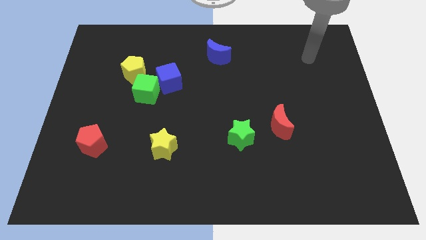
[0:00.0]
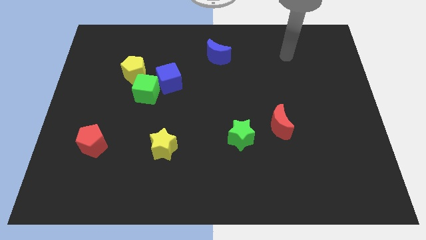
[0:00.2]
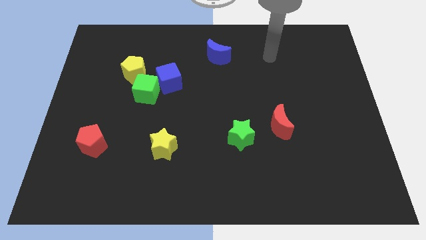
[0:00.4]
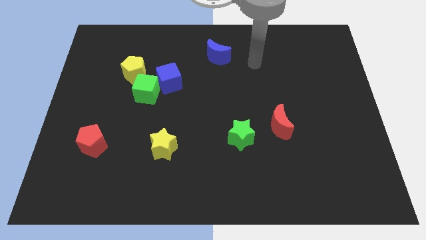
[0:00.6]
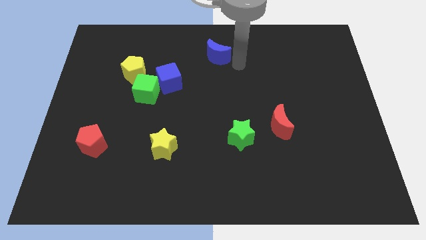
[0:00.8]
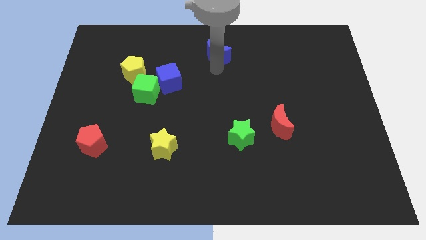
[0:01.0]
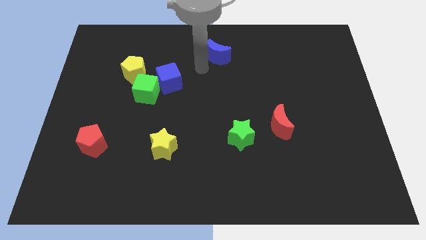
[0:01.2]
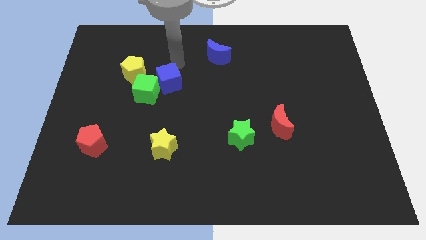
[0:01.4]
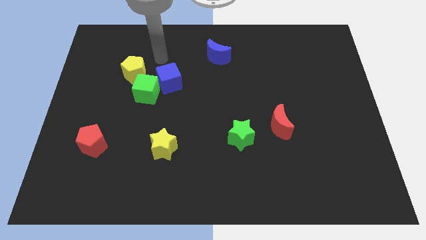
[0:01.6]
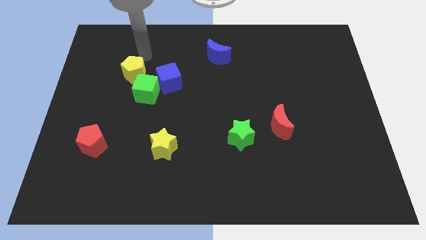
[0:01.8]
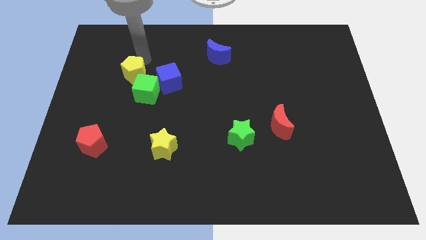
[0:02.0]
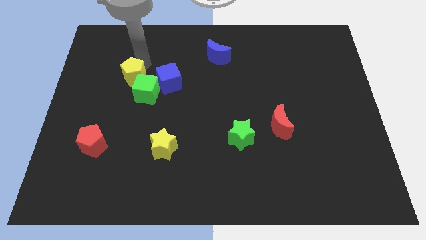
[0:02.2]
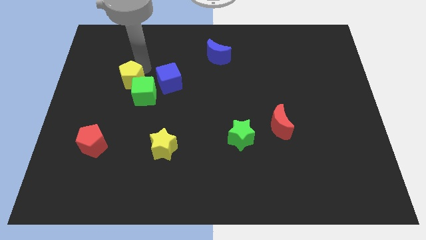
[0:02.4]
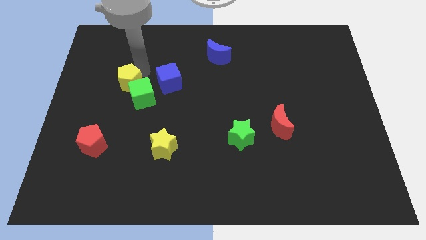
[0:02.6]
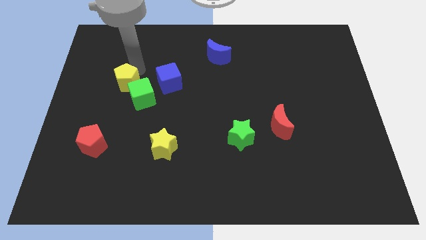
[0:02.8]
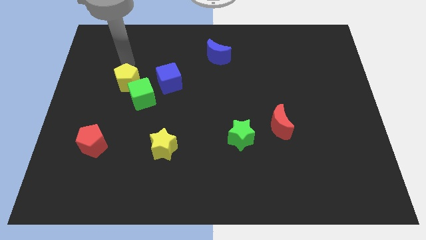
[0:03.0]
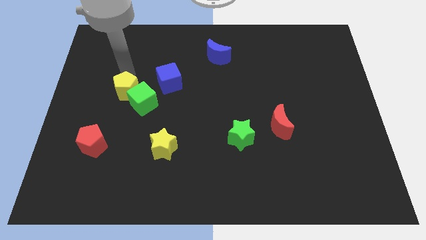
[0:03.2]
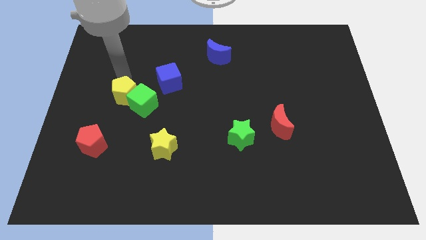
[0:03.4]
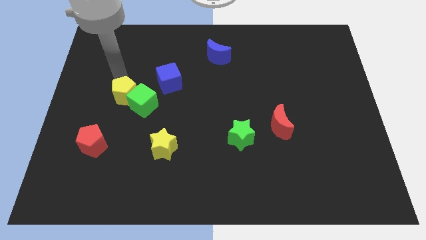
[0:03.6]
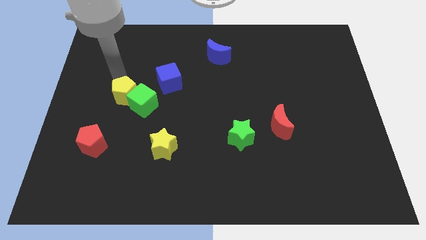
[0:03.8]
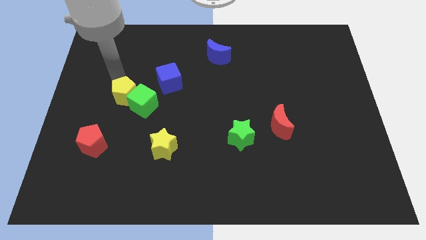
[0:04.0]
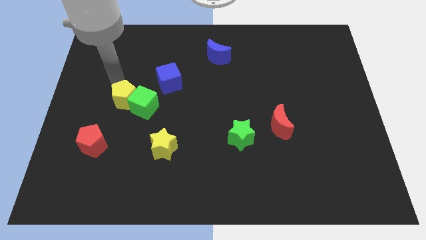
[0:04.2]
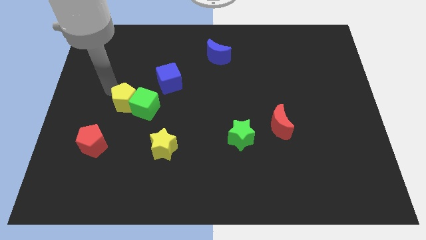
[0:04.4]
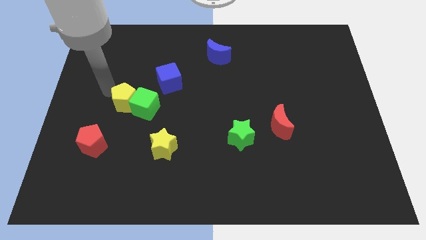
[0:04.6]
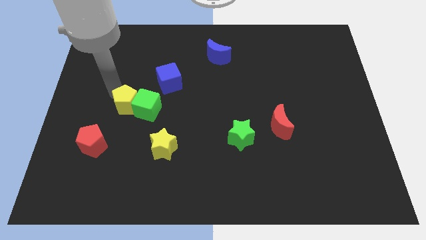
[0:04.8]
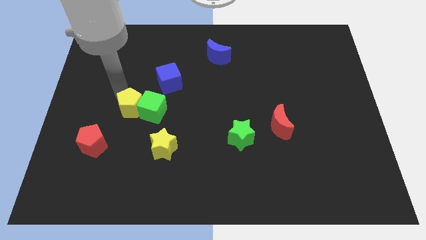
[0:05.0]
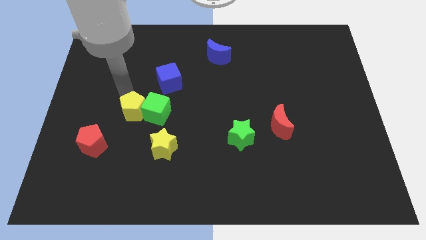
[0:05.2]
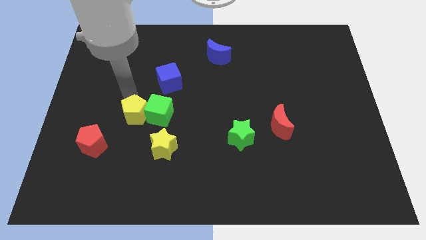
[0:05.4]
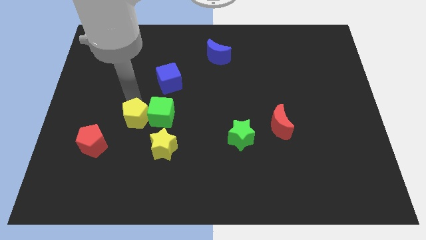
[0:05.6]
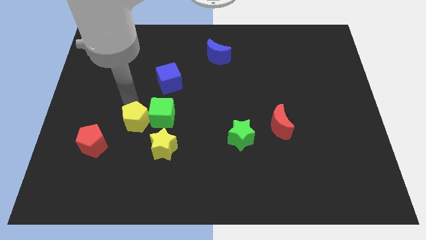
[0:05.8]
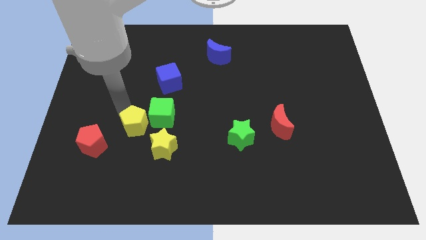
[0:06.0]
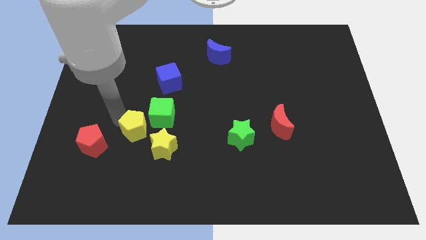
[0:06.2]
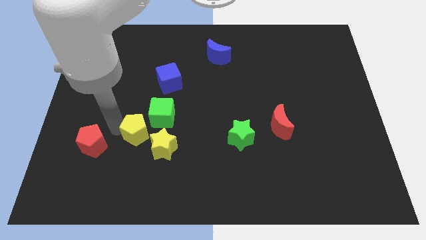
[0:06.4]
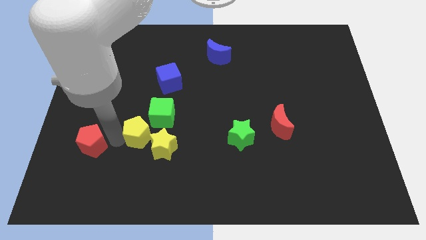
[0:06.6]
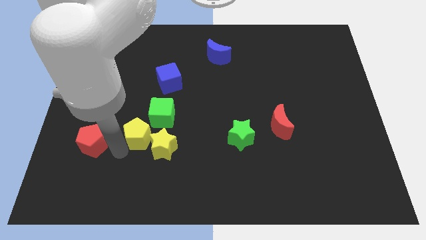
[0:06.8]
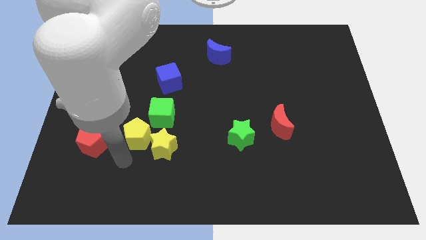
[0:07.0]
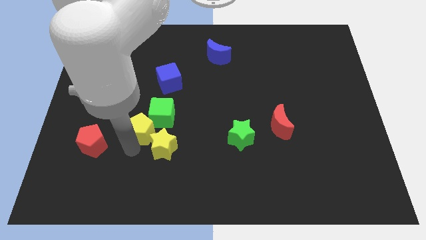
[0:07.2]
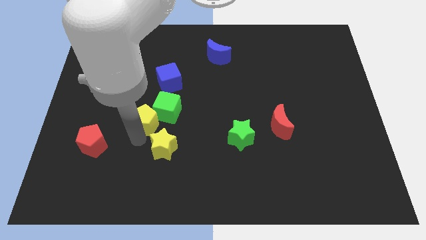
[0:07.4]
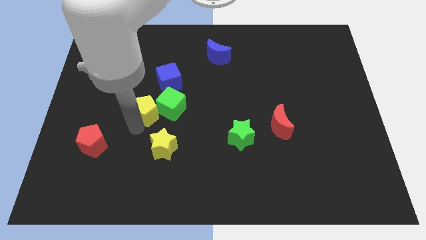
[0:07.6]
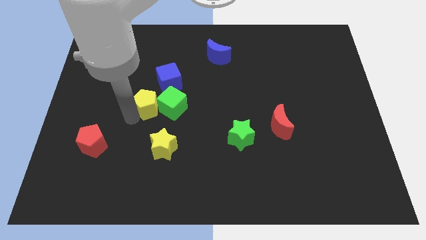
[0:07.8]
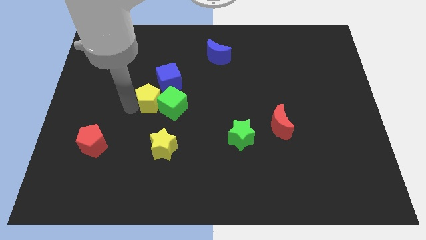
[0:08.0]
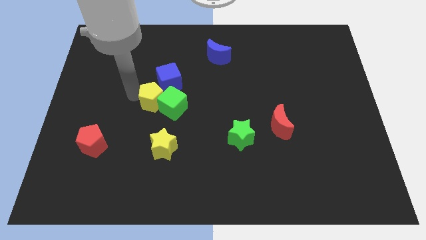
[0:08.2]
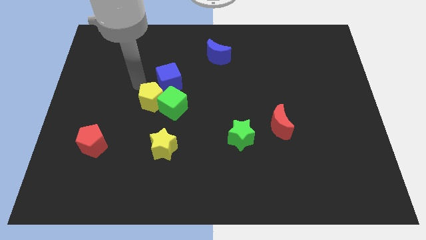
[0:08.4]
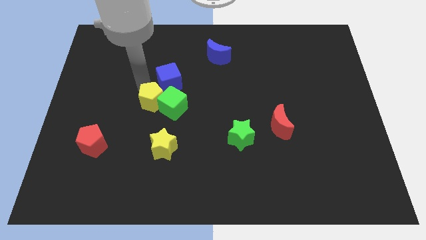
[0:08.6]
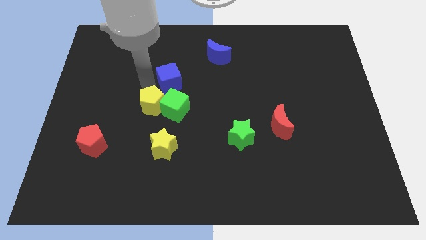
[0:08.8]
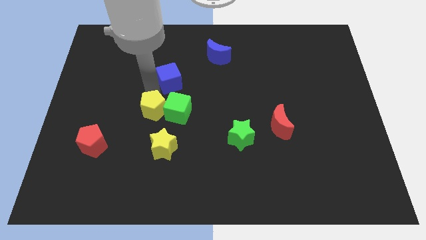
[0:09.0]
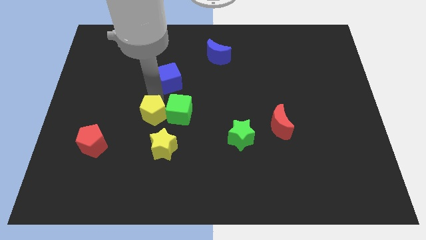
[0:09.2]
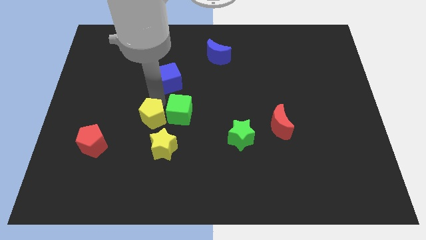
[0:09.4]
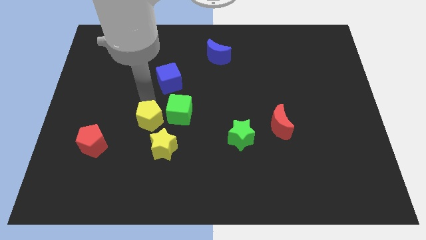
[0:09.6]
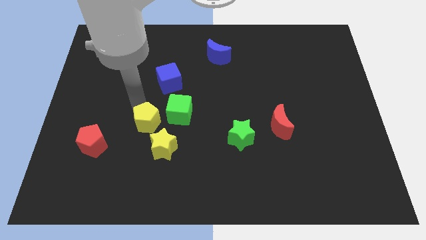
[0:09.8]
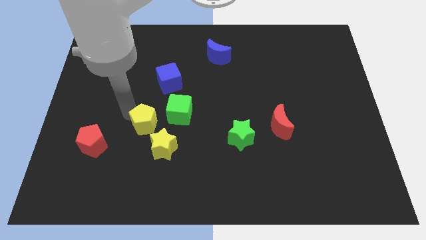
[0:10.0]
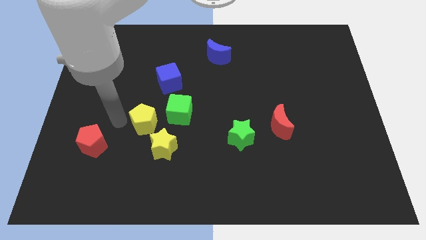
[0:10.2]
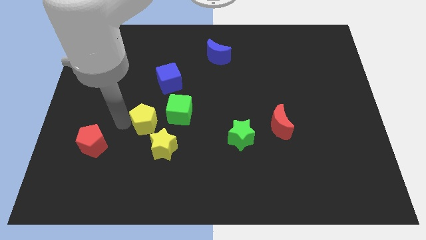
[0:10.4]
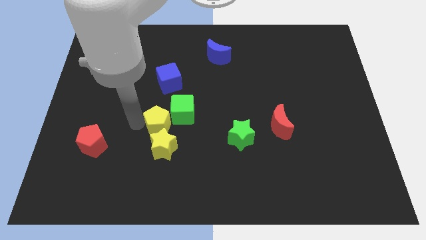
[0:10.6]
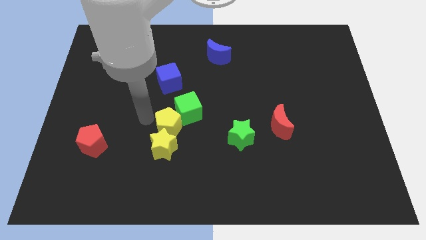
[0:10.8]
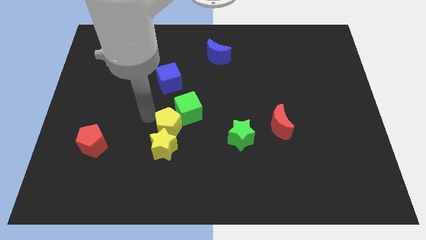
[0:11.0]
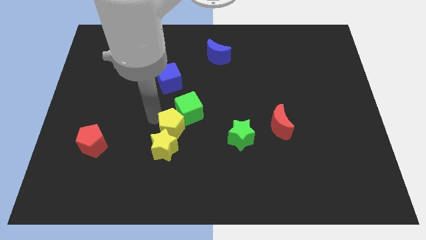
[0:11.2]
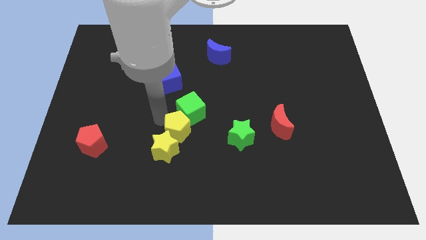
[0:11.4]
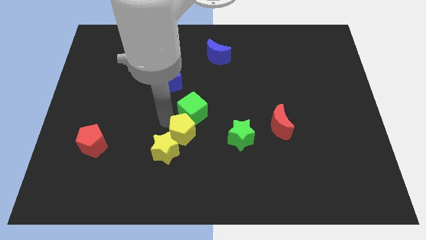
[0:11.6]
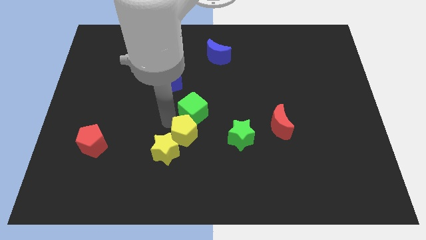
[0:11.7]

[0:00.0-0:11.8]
move the yellow pentagon just right of the yellow star
